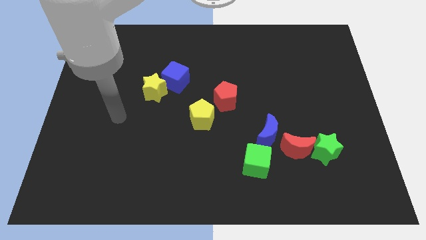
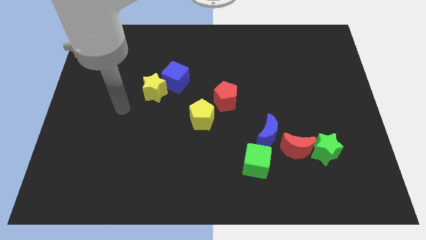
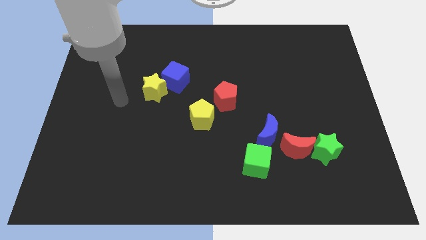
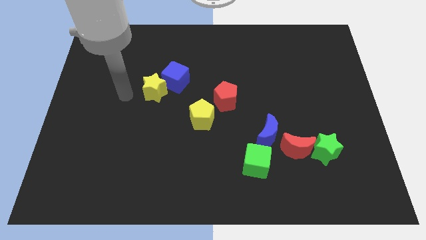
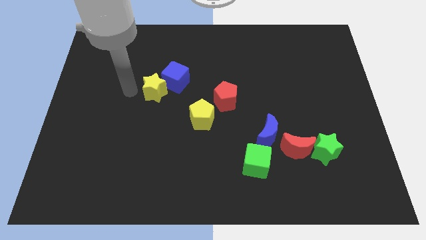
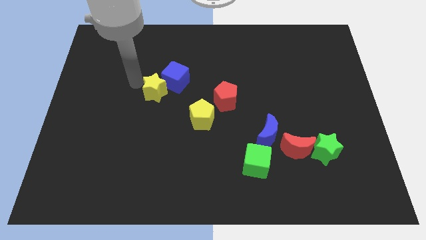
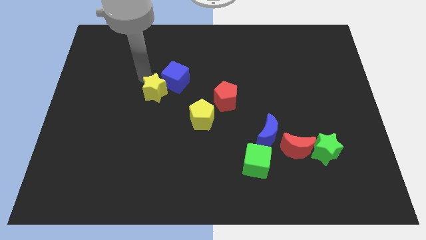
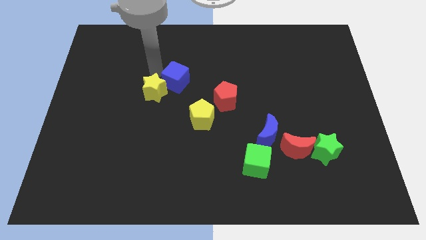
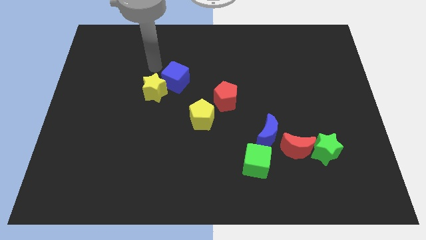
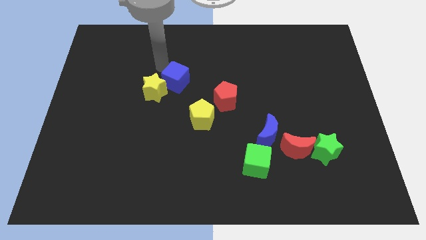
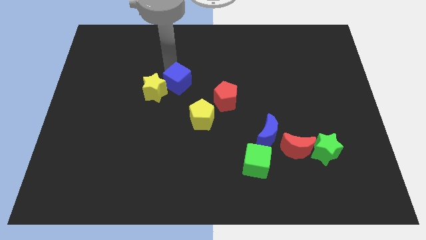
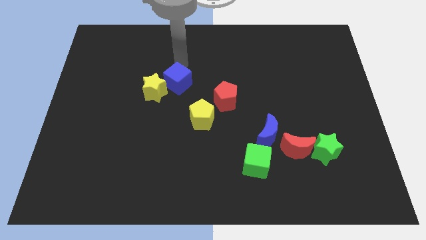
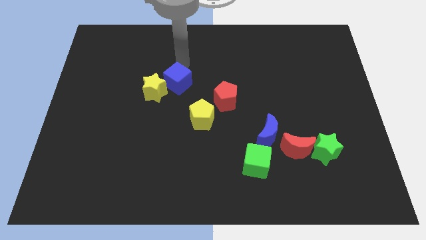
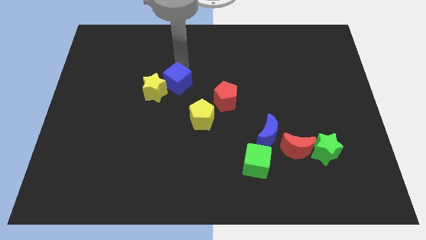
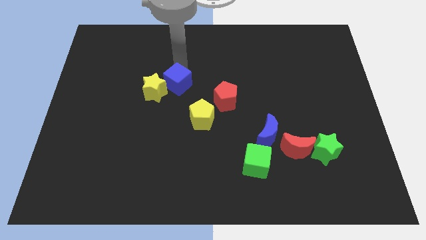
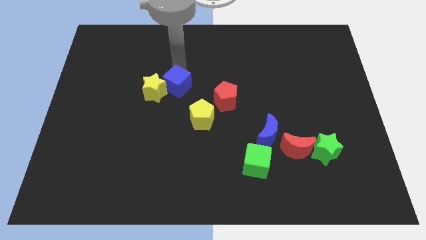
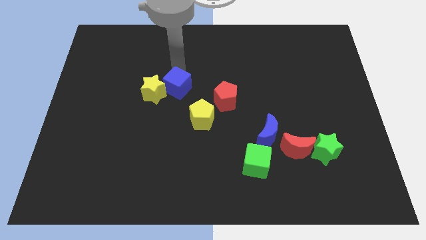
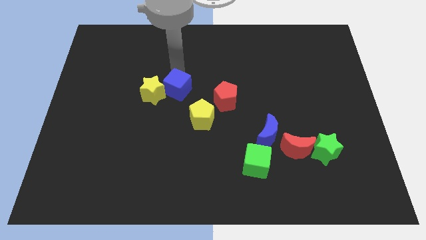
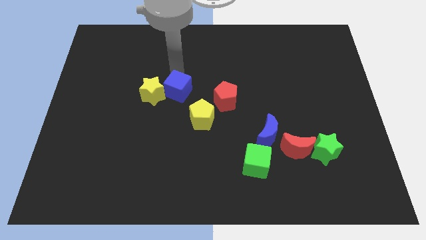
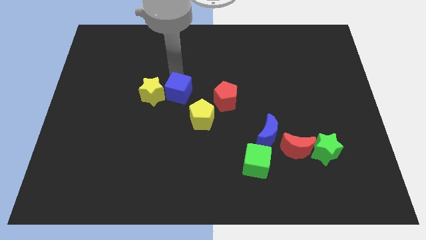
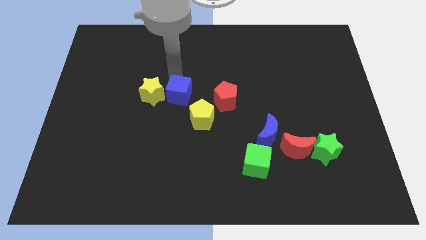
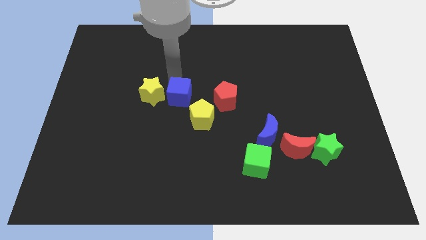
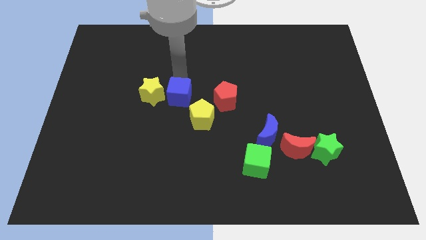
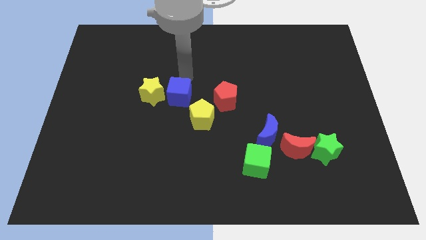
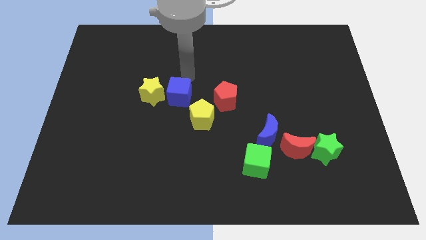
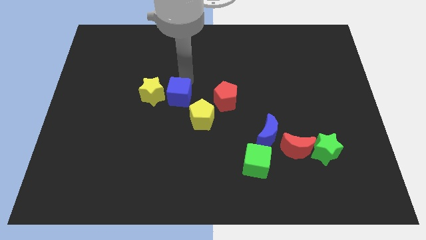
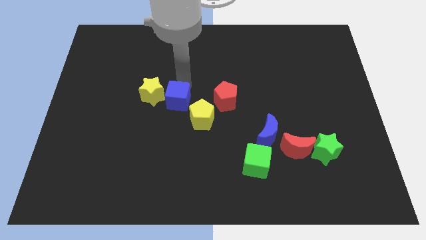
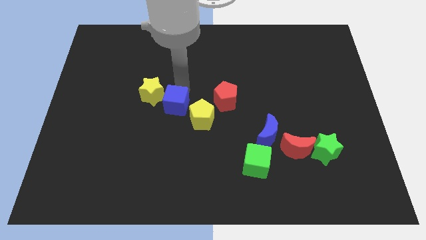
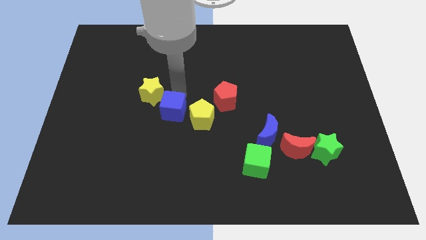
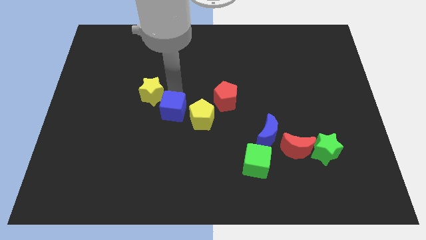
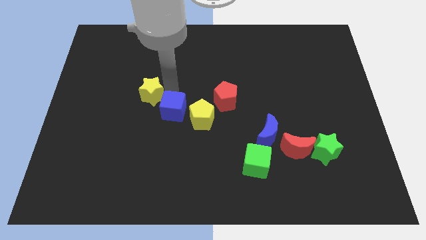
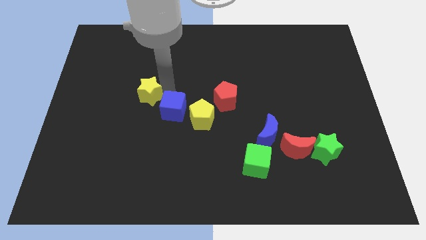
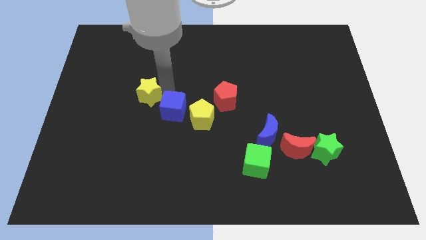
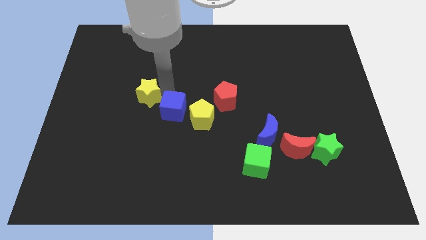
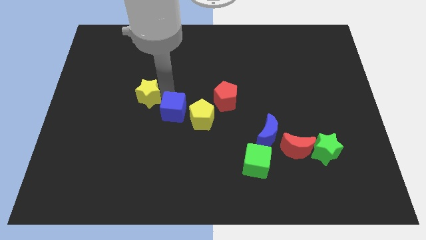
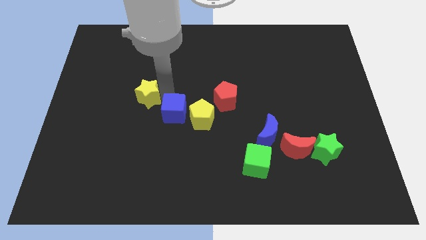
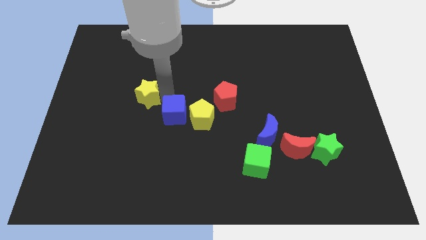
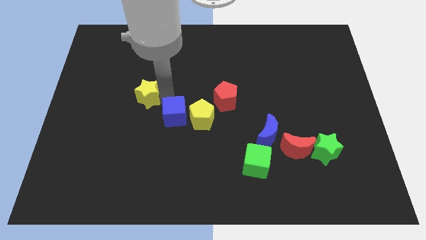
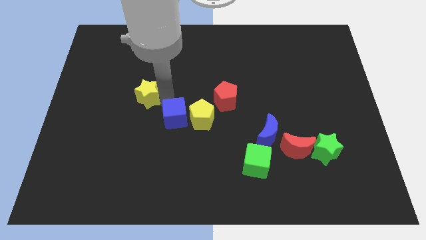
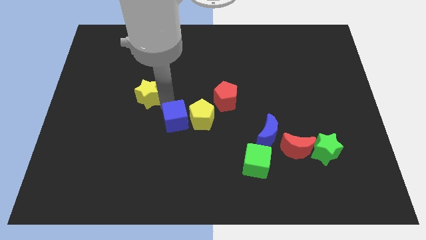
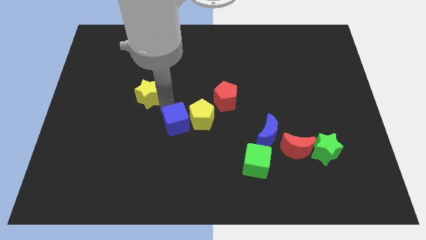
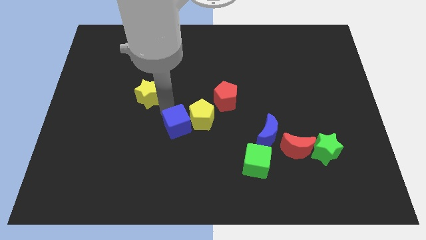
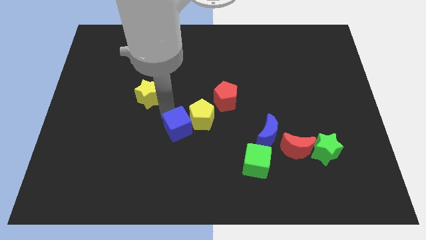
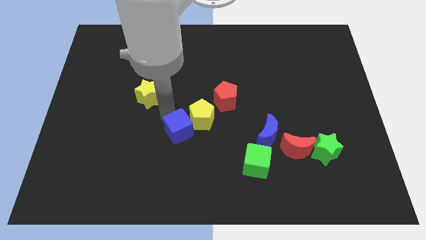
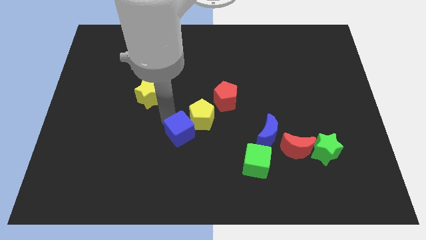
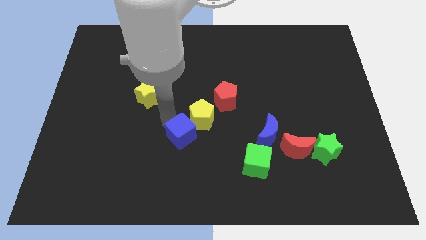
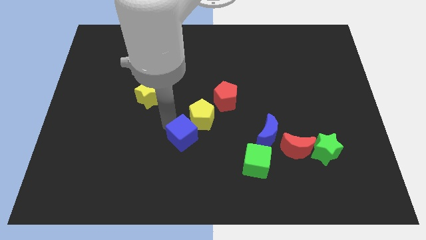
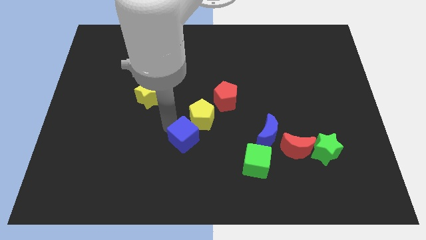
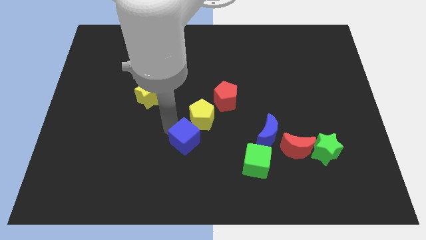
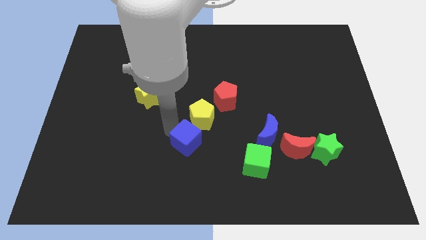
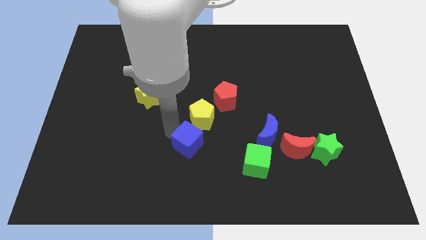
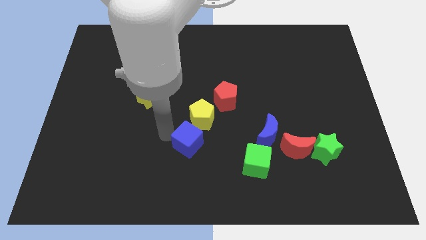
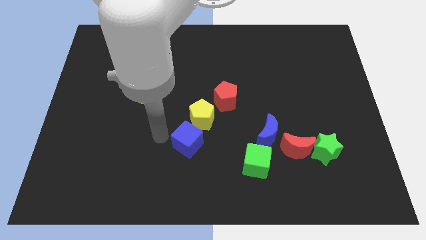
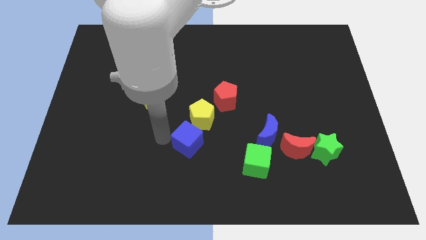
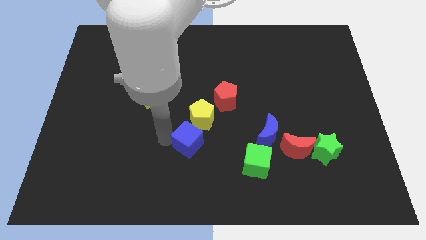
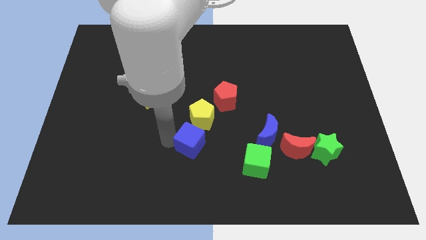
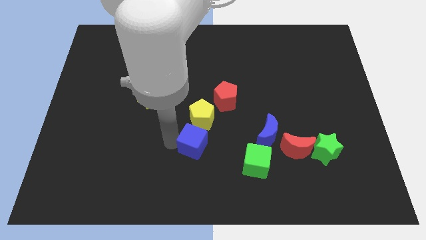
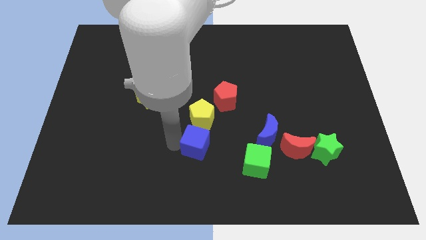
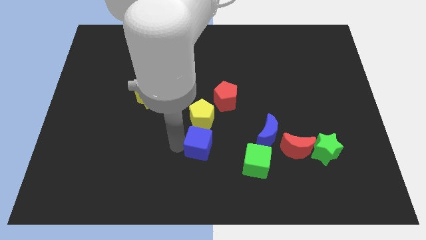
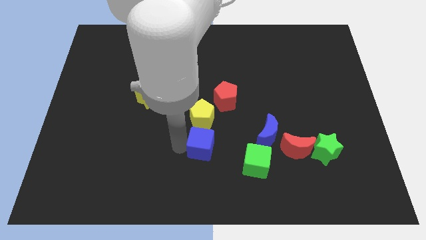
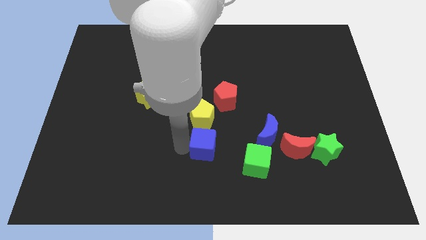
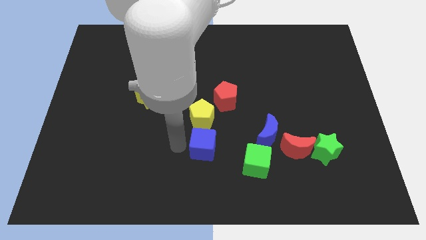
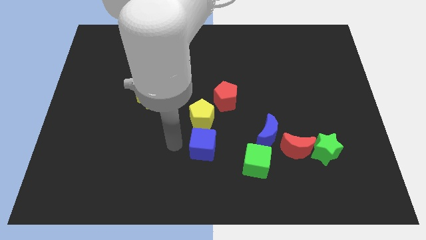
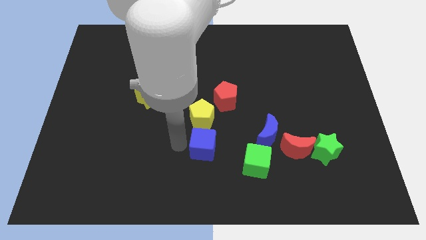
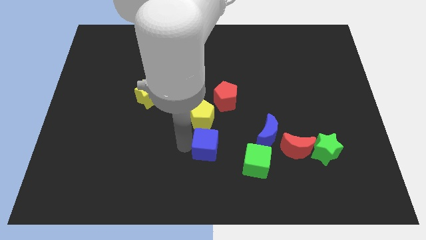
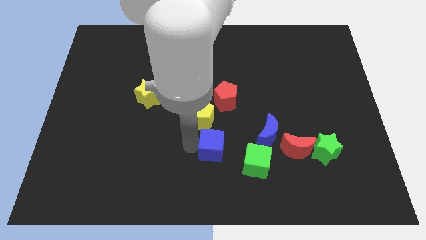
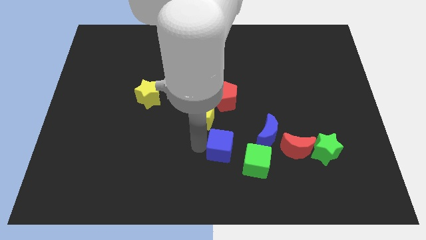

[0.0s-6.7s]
push the blue cube down and right diagonally

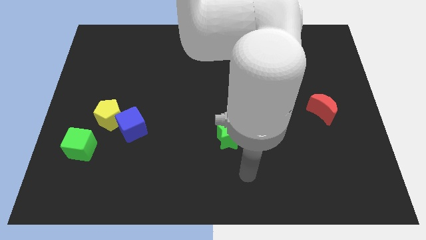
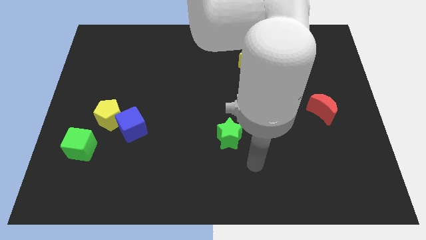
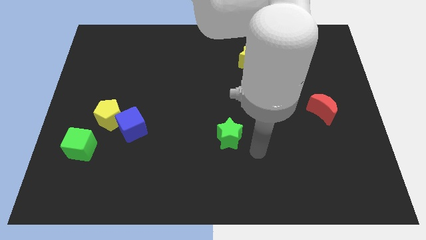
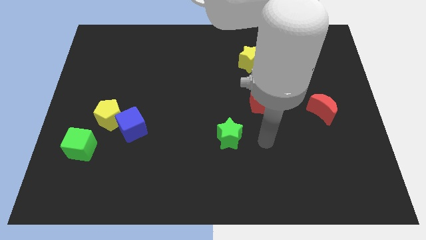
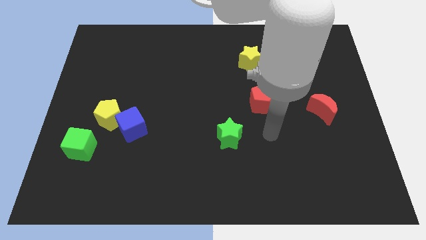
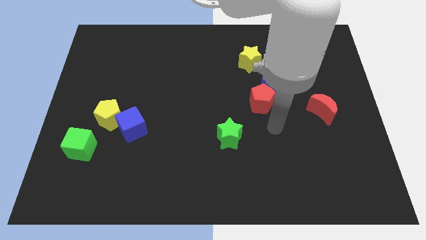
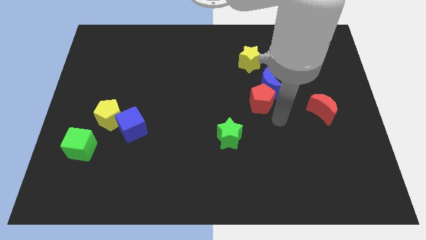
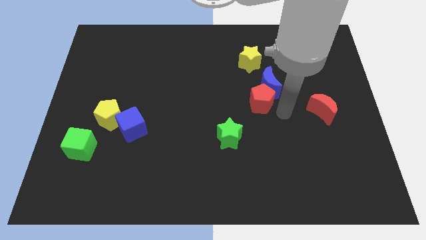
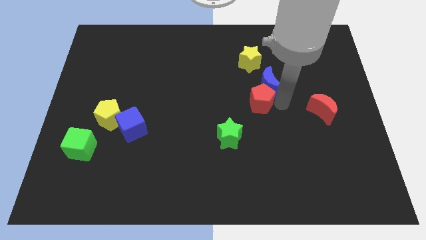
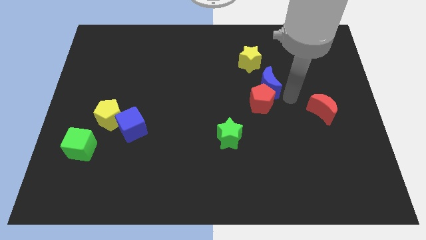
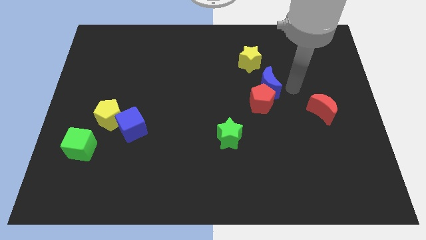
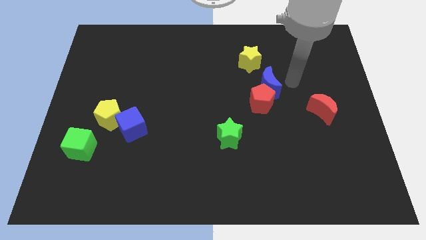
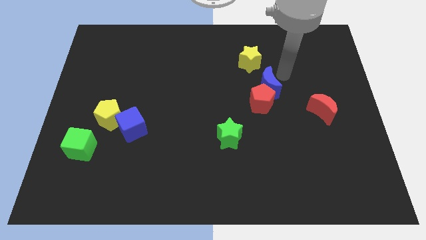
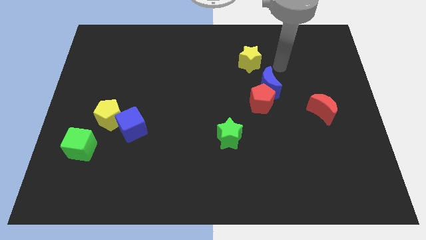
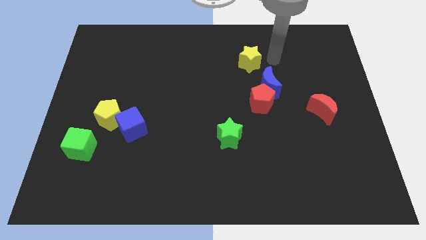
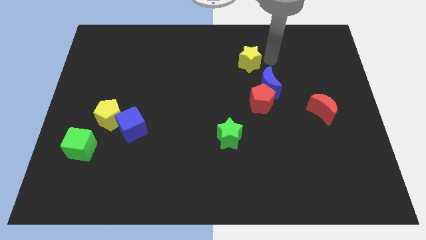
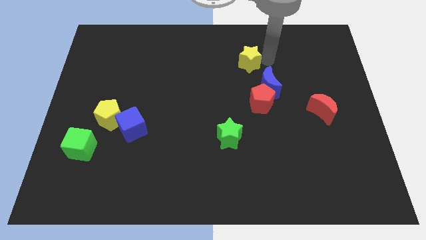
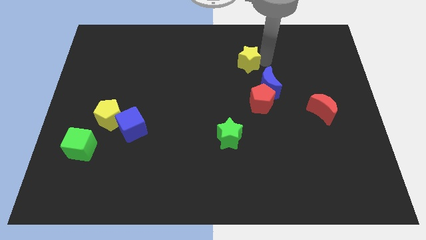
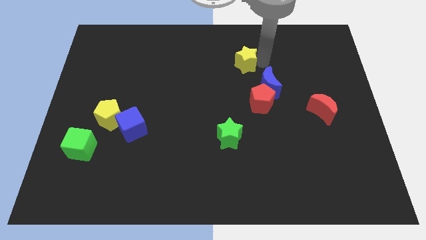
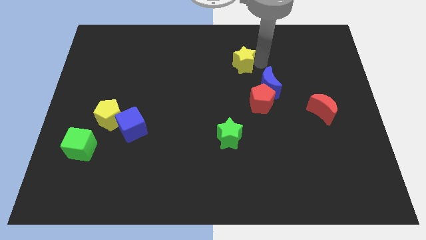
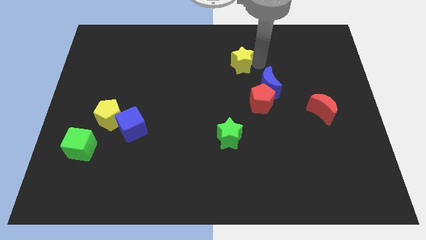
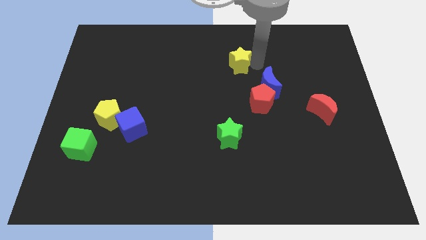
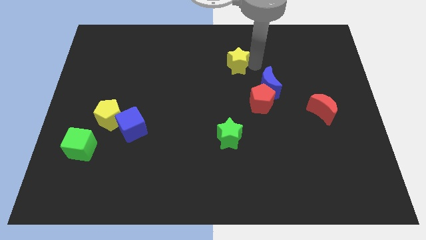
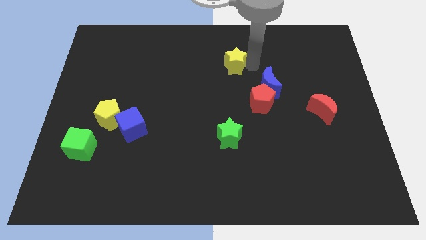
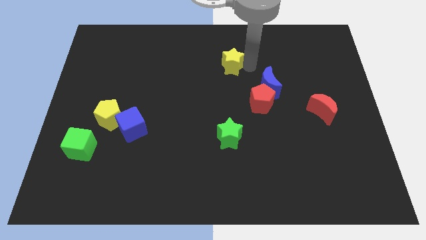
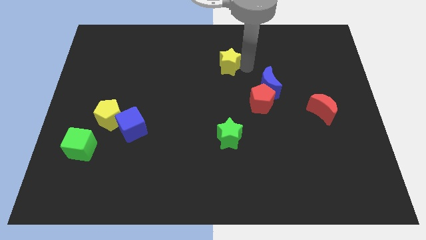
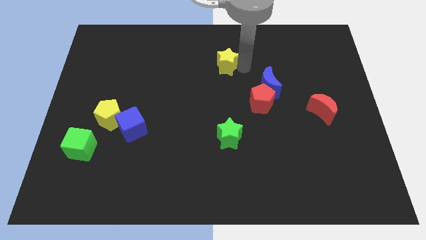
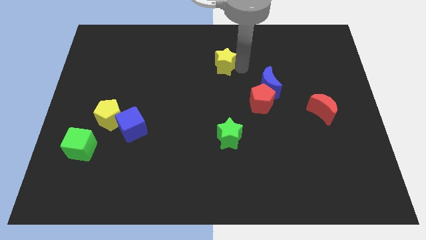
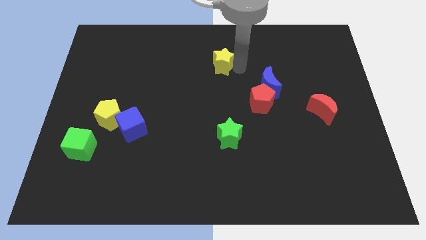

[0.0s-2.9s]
slightly slide the yellow star to the left
